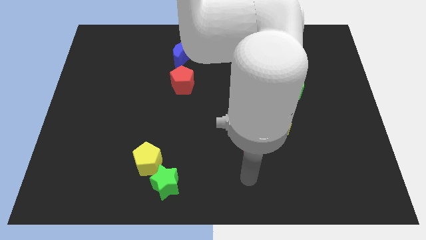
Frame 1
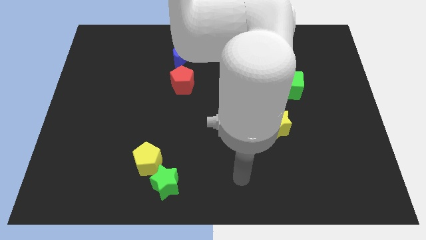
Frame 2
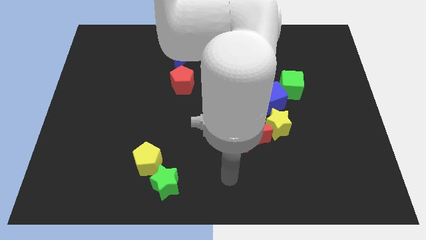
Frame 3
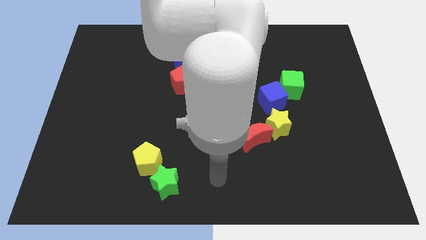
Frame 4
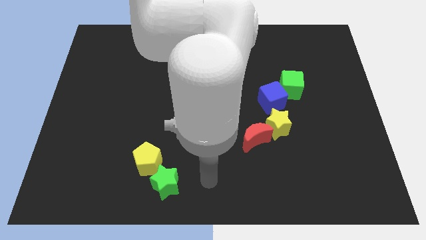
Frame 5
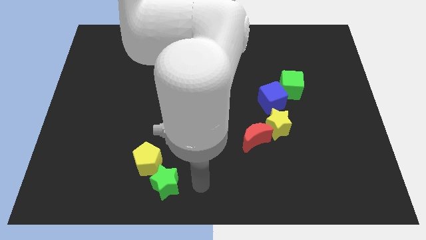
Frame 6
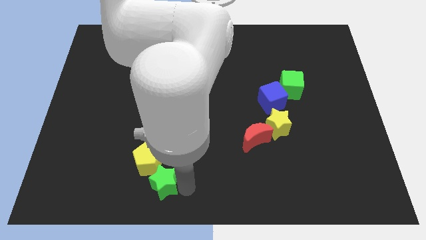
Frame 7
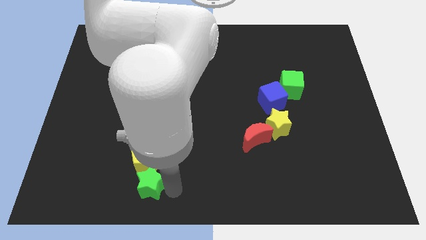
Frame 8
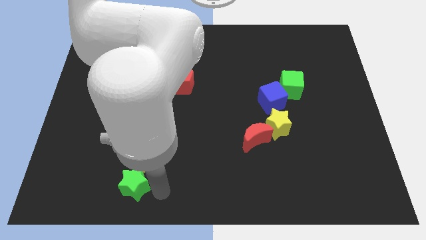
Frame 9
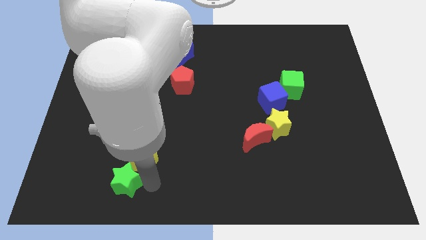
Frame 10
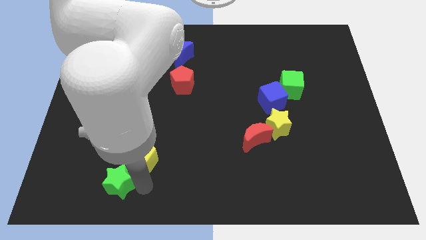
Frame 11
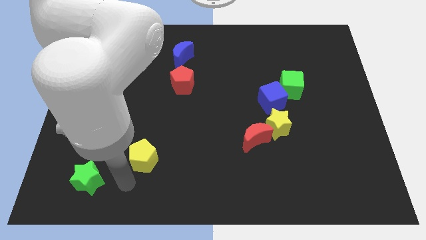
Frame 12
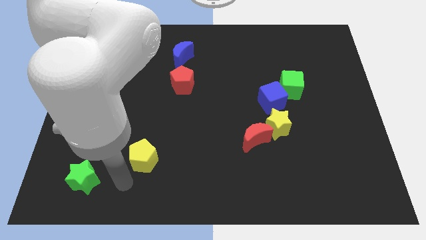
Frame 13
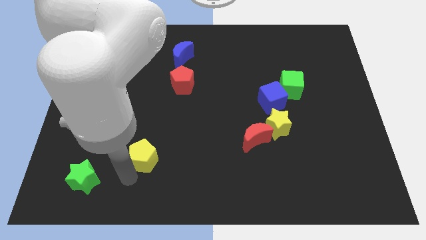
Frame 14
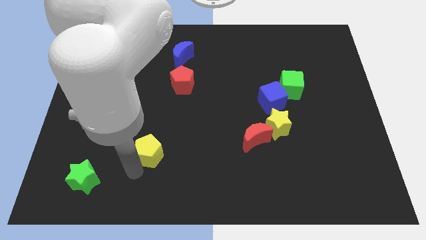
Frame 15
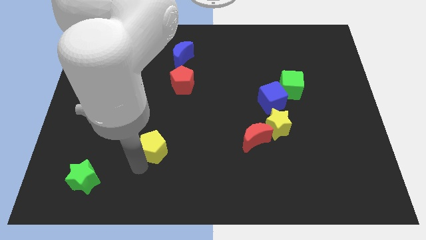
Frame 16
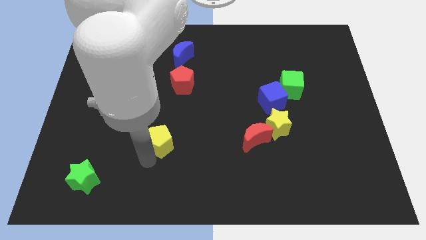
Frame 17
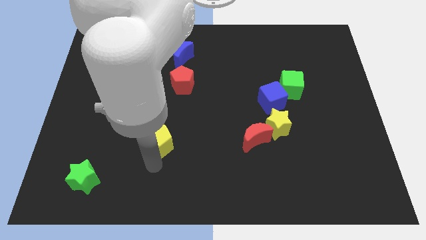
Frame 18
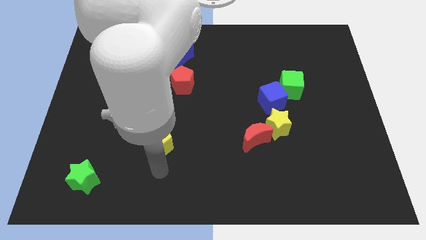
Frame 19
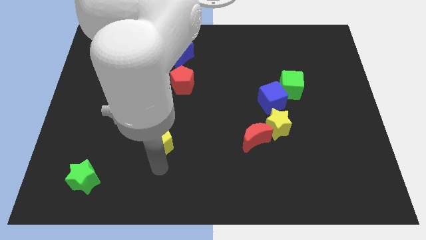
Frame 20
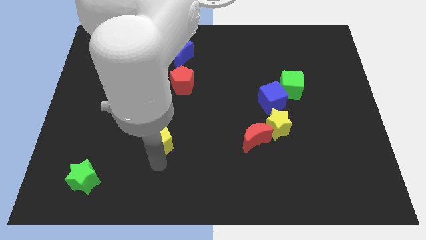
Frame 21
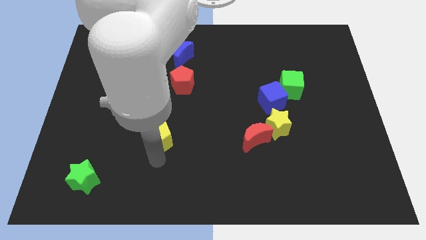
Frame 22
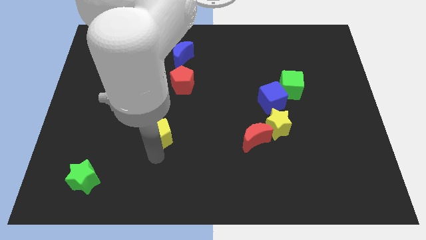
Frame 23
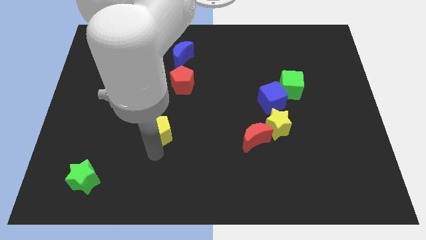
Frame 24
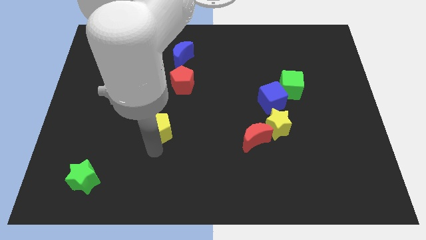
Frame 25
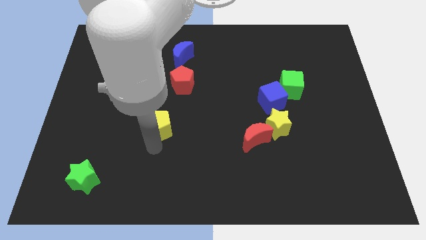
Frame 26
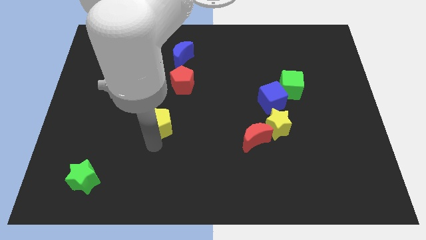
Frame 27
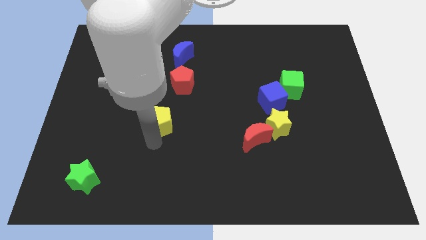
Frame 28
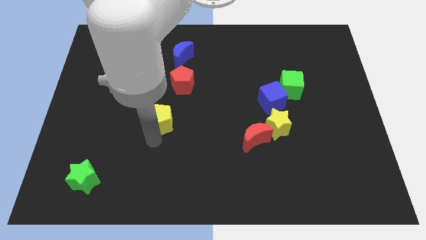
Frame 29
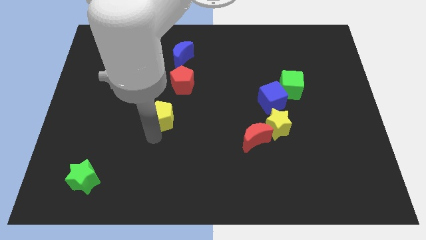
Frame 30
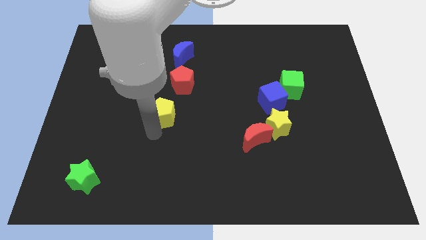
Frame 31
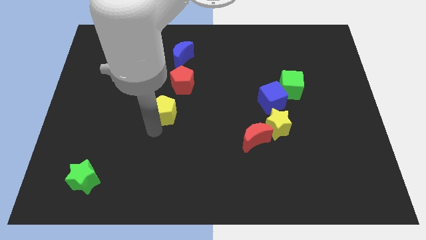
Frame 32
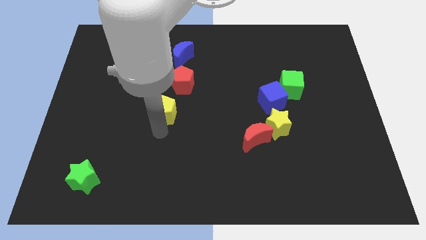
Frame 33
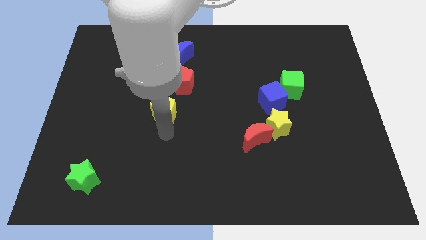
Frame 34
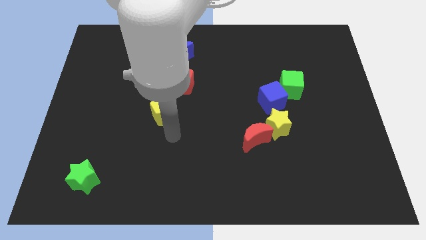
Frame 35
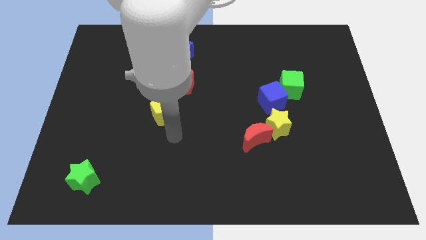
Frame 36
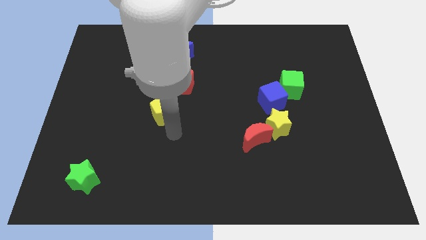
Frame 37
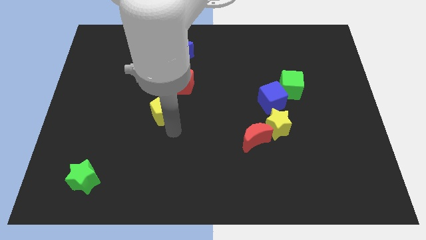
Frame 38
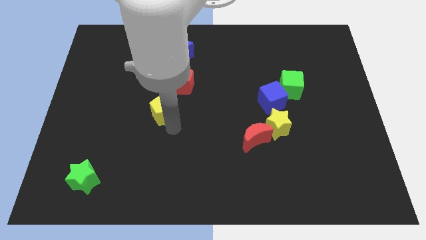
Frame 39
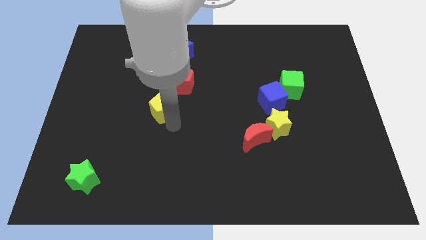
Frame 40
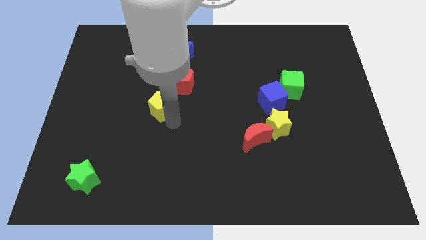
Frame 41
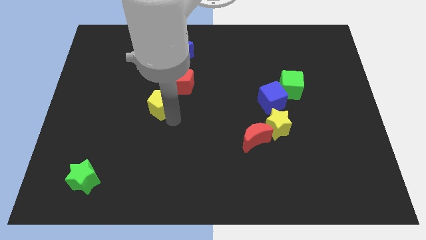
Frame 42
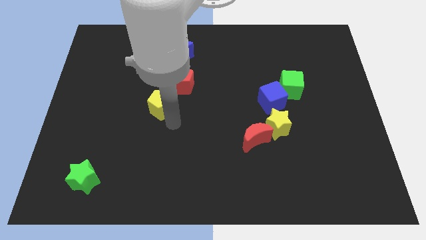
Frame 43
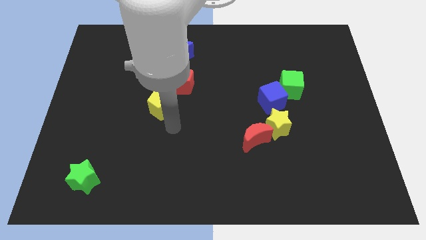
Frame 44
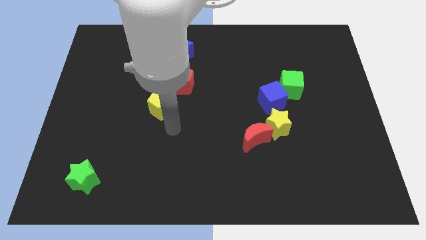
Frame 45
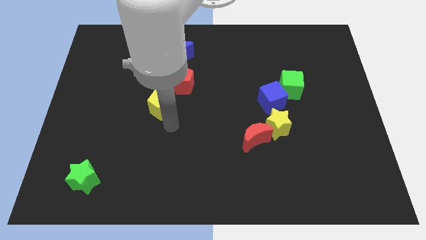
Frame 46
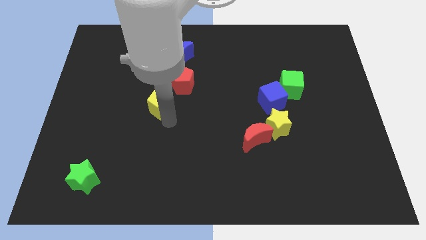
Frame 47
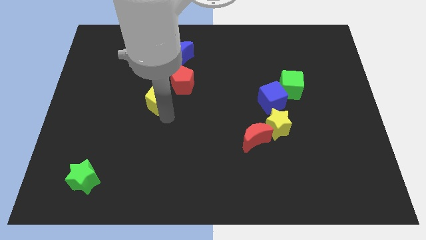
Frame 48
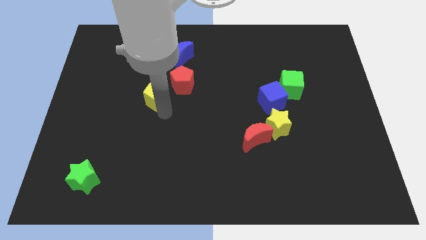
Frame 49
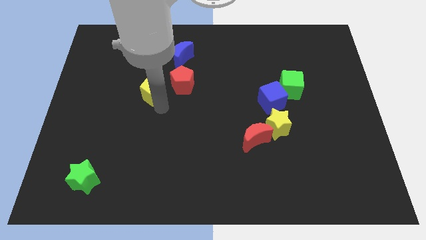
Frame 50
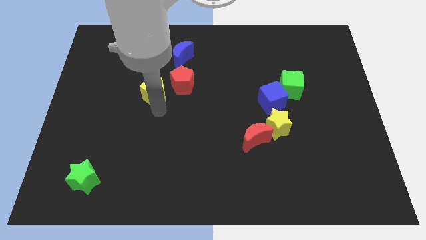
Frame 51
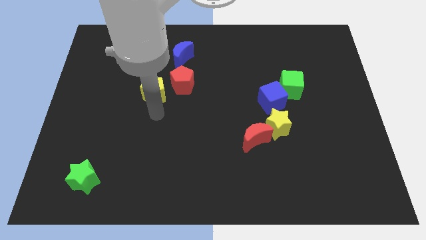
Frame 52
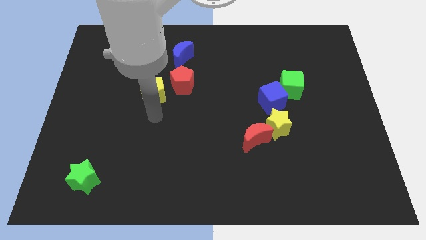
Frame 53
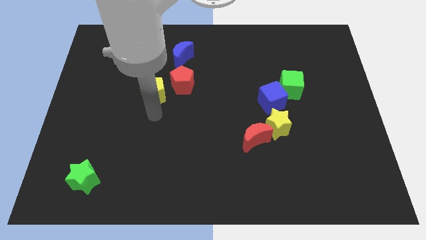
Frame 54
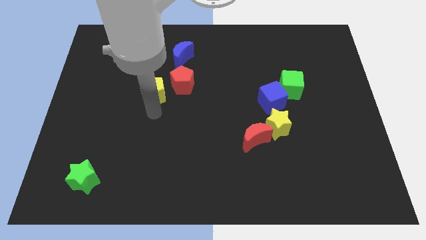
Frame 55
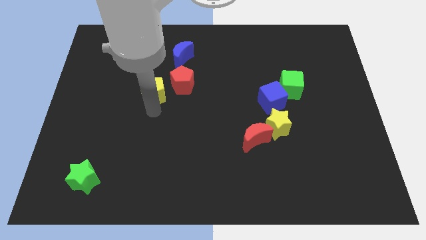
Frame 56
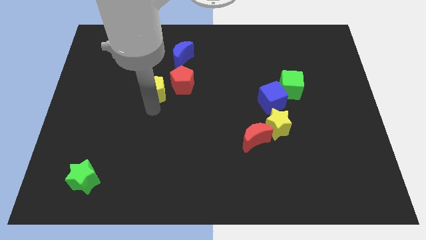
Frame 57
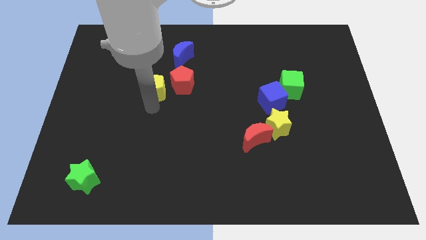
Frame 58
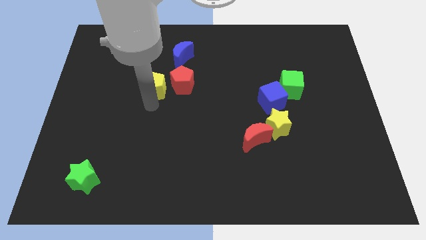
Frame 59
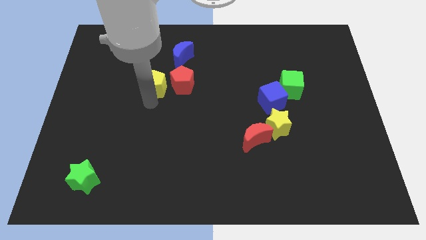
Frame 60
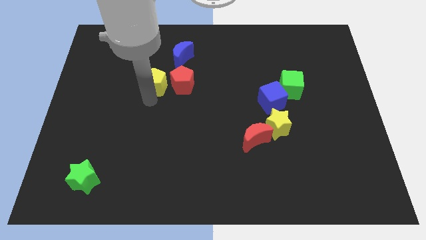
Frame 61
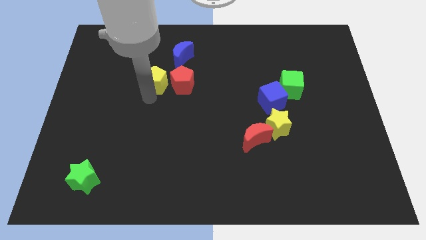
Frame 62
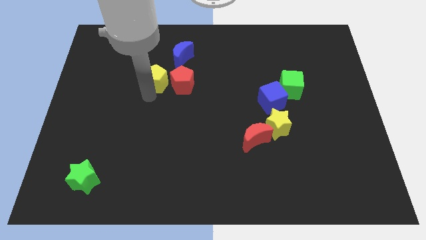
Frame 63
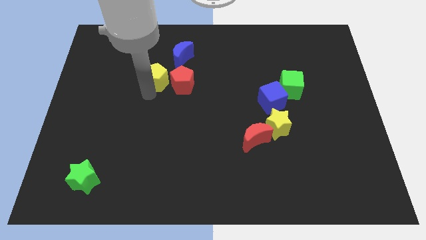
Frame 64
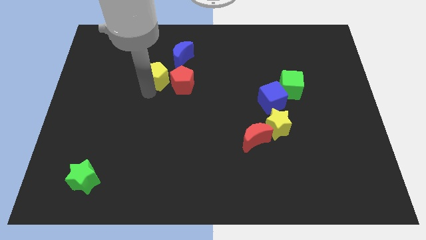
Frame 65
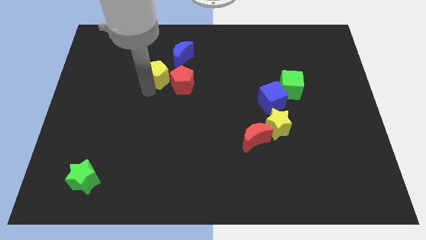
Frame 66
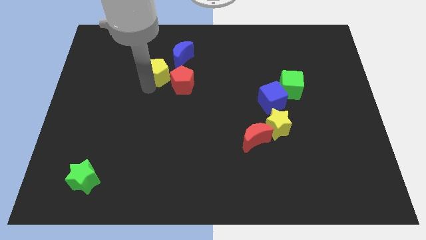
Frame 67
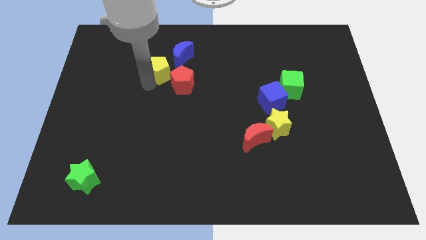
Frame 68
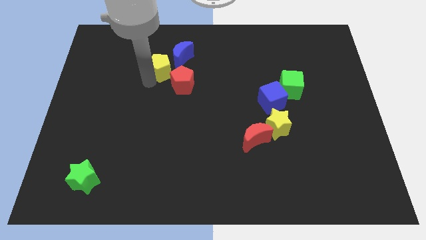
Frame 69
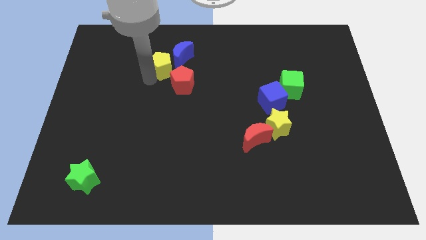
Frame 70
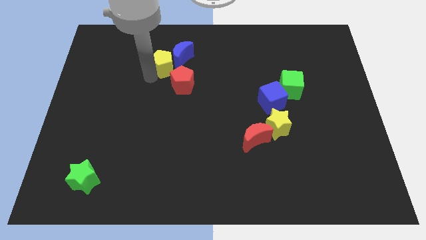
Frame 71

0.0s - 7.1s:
slide the yellow pentagon next to the blue moon
